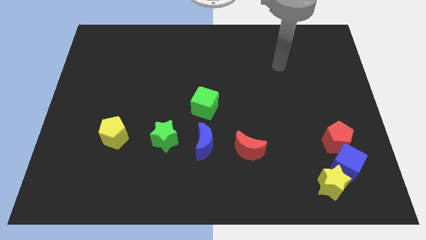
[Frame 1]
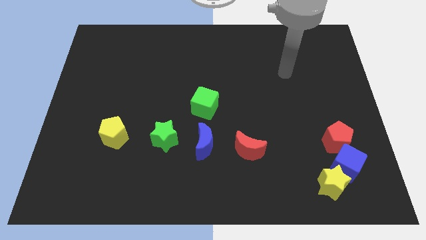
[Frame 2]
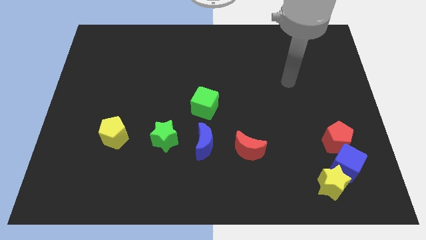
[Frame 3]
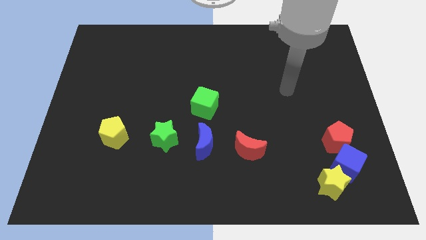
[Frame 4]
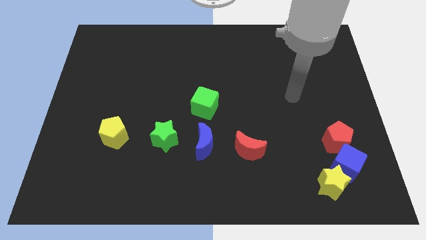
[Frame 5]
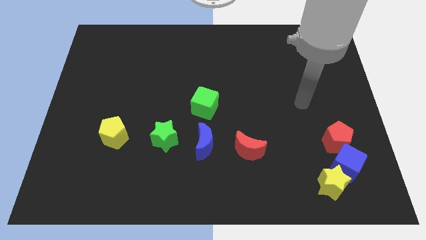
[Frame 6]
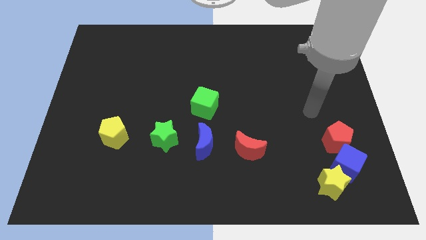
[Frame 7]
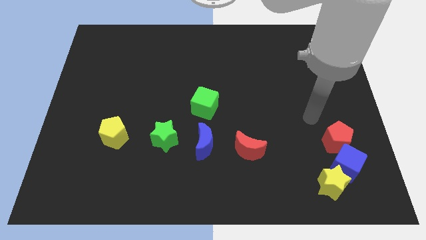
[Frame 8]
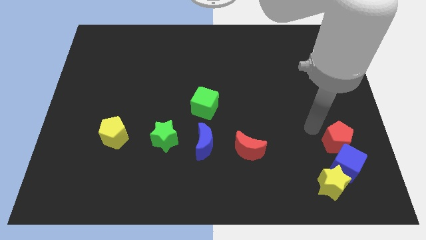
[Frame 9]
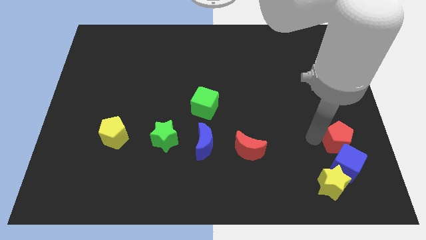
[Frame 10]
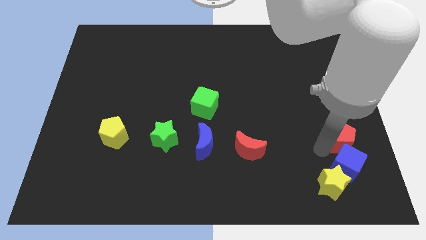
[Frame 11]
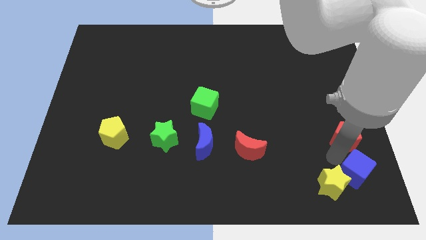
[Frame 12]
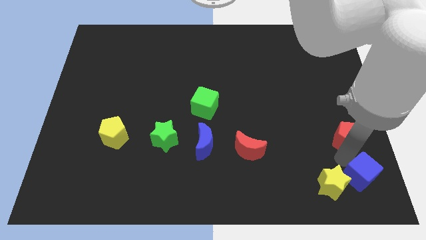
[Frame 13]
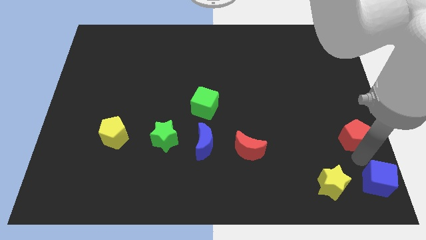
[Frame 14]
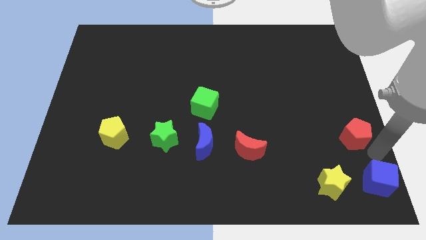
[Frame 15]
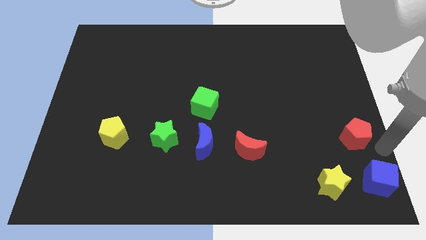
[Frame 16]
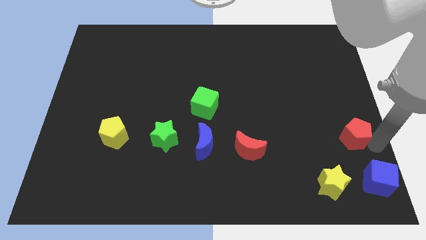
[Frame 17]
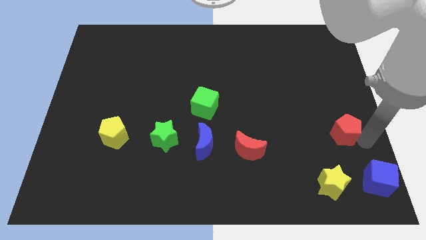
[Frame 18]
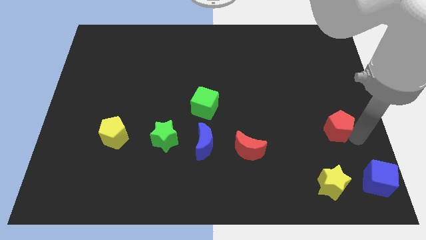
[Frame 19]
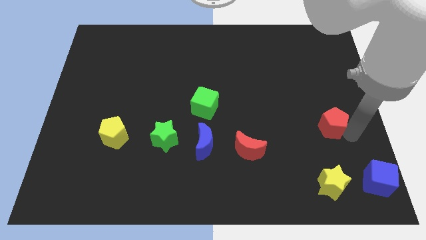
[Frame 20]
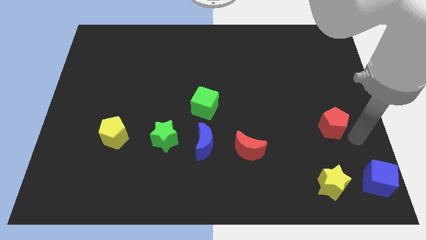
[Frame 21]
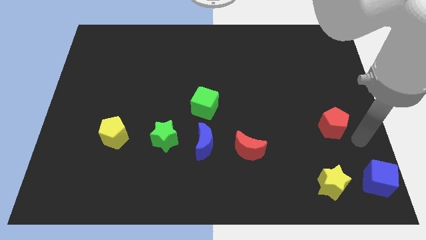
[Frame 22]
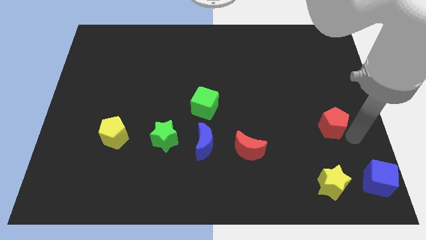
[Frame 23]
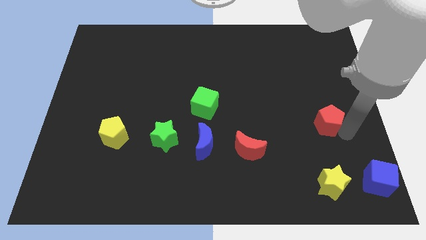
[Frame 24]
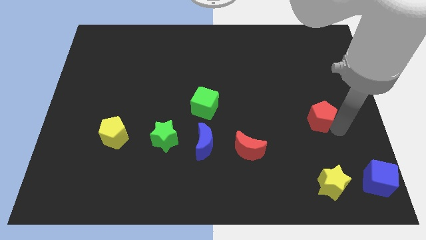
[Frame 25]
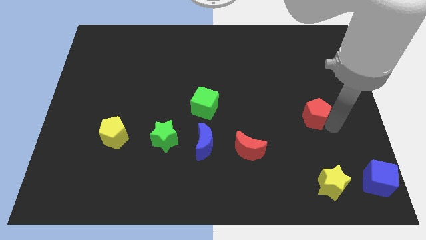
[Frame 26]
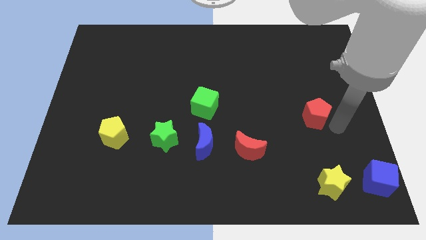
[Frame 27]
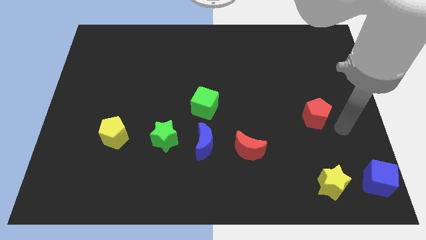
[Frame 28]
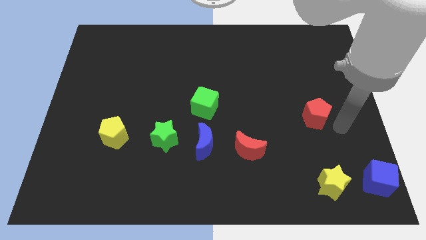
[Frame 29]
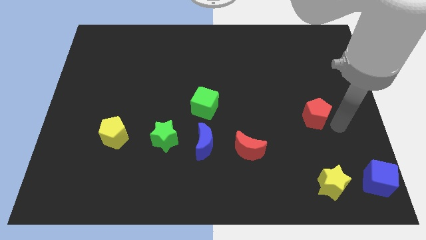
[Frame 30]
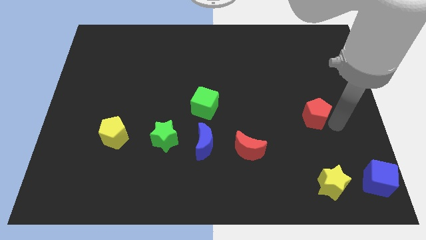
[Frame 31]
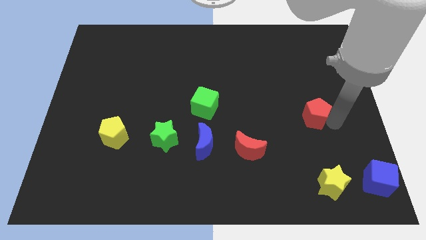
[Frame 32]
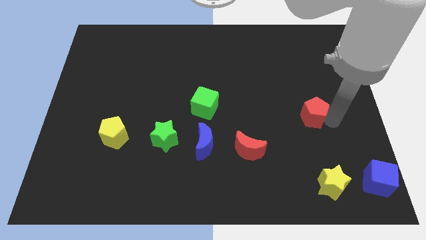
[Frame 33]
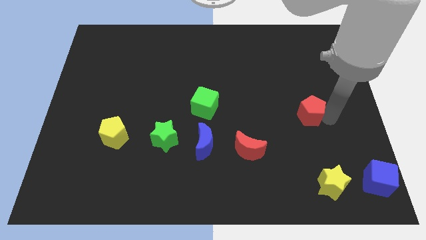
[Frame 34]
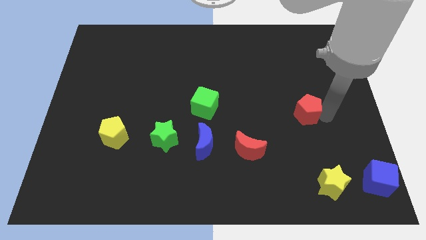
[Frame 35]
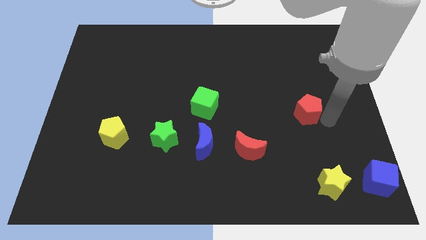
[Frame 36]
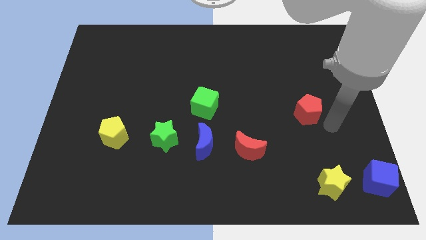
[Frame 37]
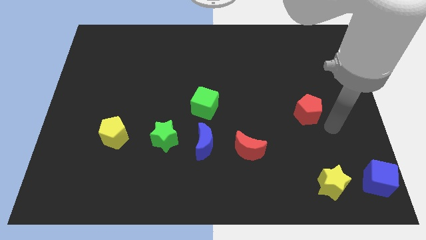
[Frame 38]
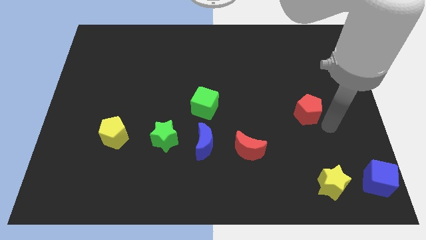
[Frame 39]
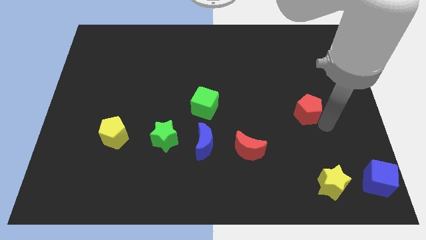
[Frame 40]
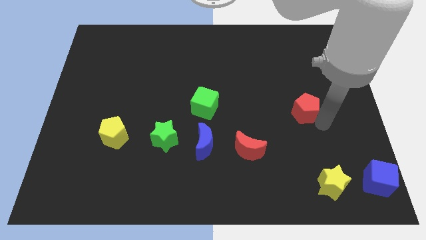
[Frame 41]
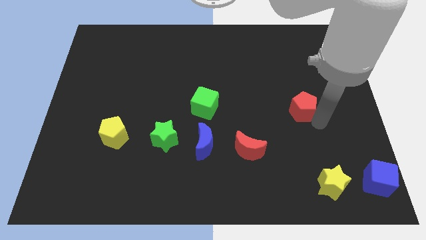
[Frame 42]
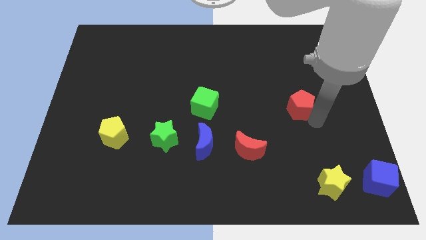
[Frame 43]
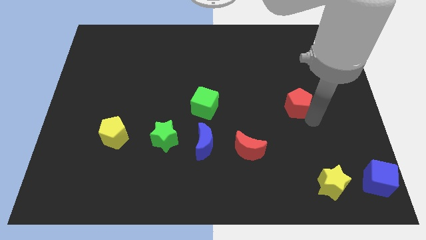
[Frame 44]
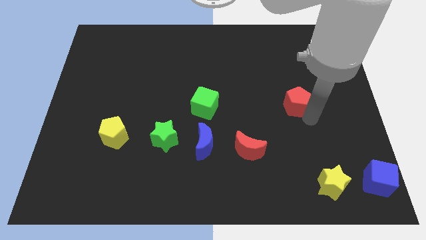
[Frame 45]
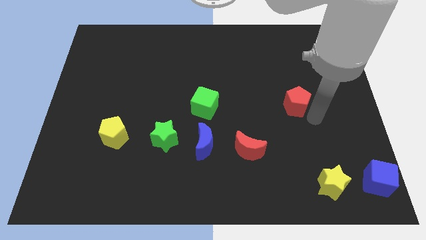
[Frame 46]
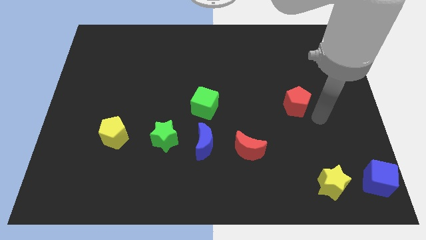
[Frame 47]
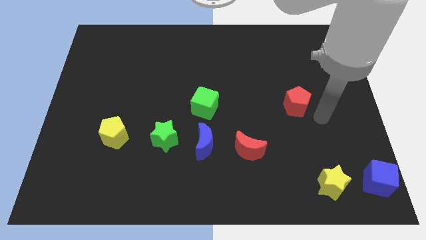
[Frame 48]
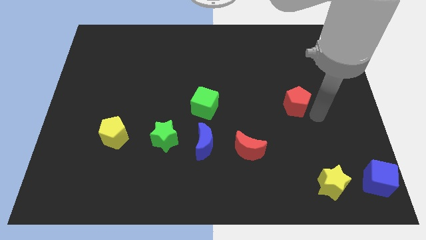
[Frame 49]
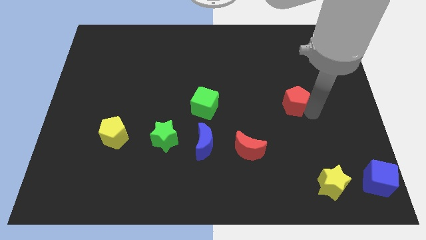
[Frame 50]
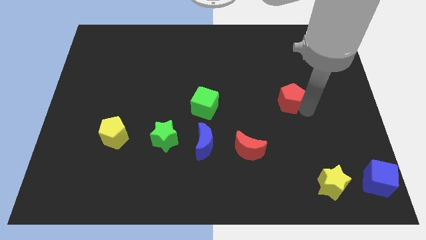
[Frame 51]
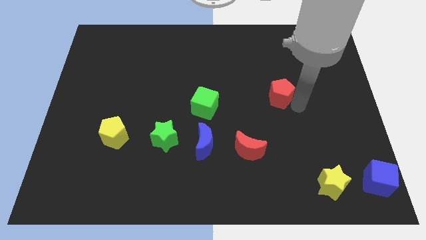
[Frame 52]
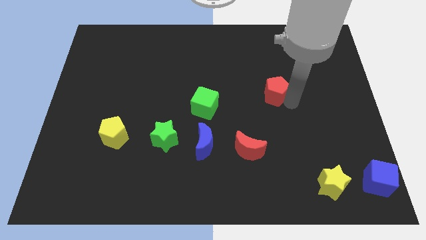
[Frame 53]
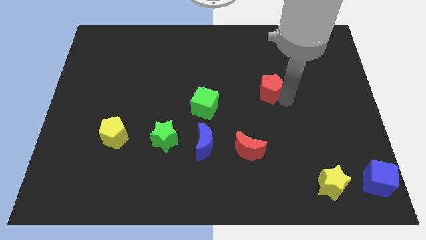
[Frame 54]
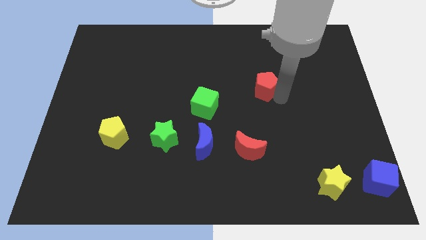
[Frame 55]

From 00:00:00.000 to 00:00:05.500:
slide the red pentagon up and to the left

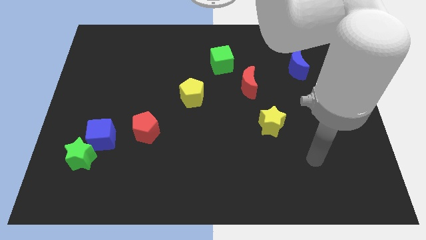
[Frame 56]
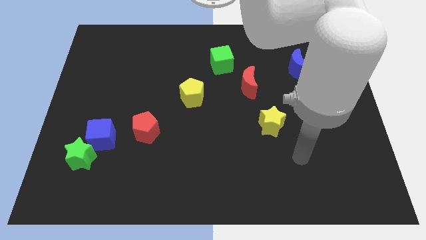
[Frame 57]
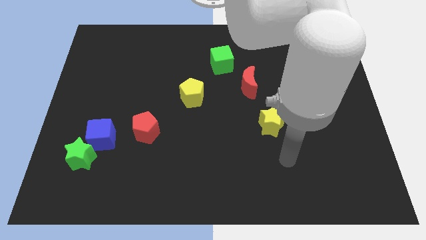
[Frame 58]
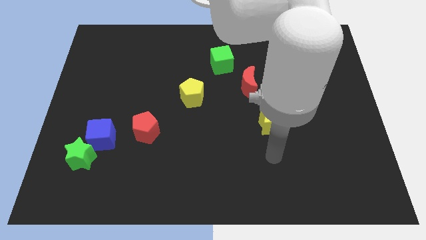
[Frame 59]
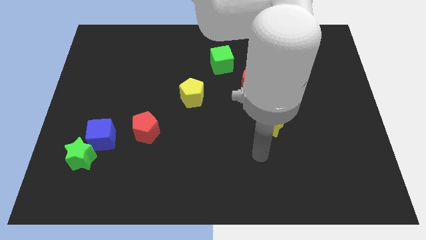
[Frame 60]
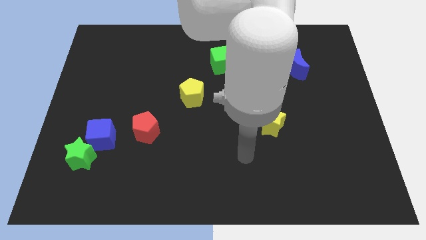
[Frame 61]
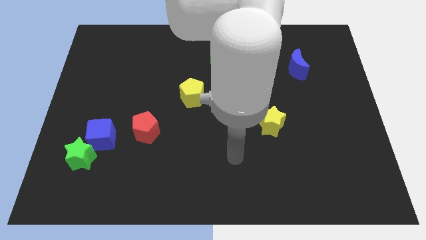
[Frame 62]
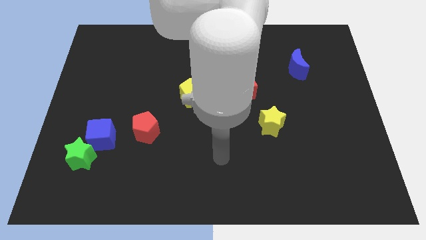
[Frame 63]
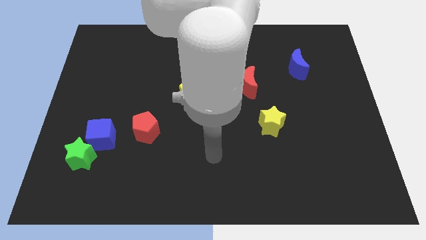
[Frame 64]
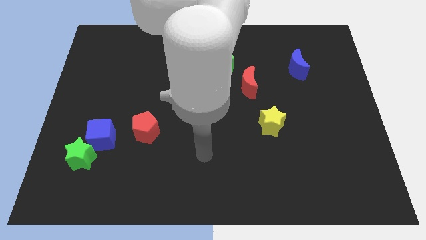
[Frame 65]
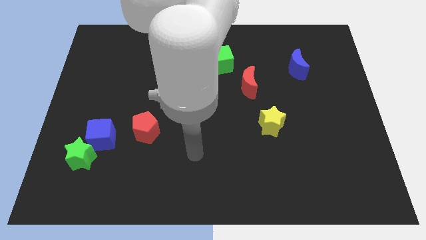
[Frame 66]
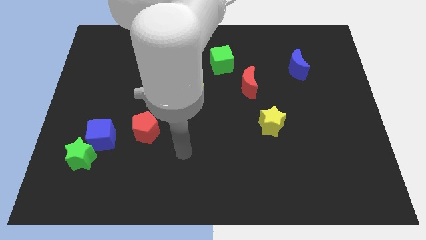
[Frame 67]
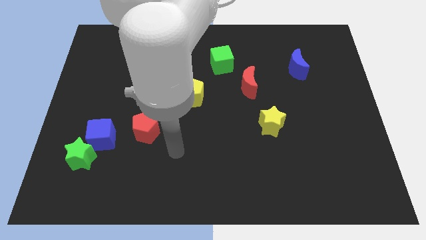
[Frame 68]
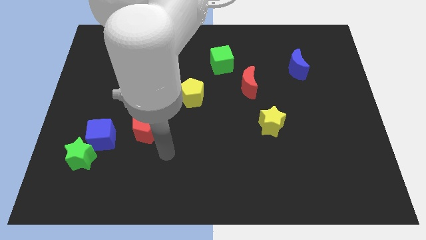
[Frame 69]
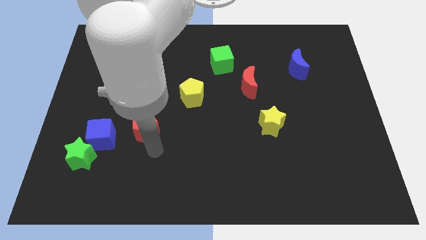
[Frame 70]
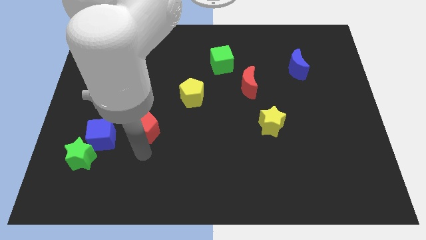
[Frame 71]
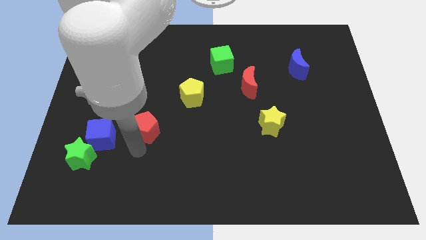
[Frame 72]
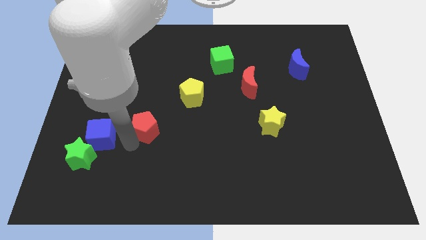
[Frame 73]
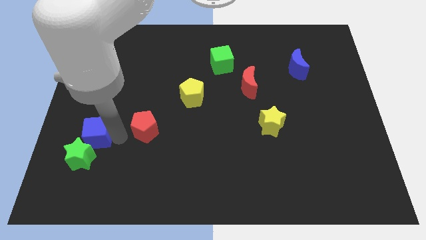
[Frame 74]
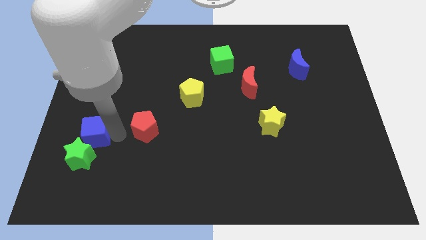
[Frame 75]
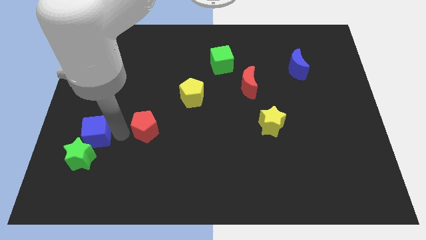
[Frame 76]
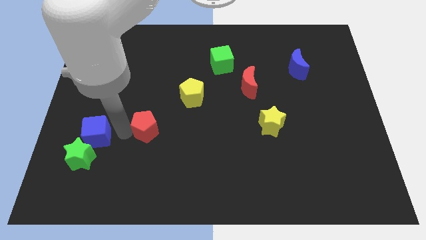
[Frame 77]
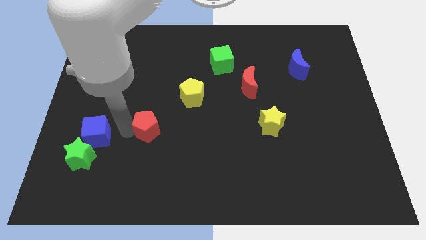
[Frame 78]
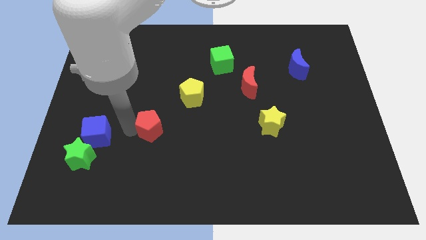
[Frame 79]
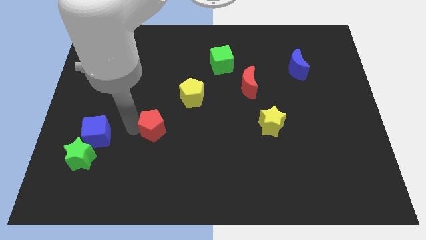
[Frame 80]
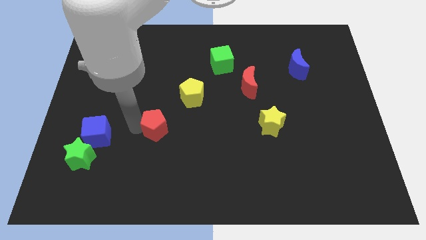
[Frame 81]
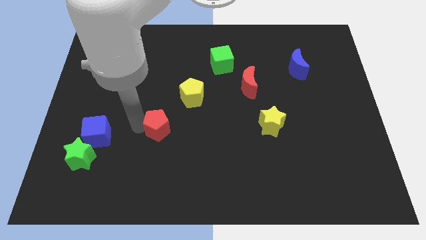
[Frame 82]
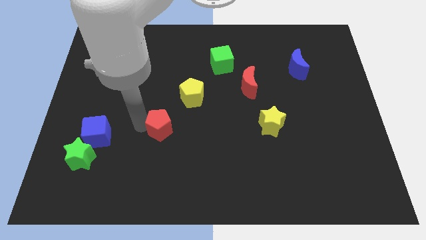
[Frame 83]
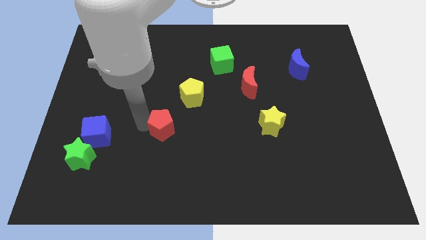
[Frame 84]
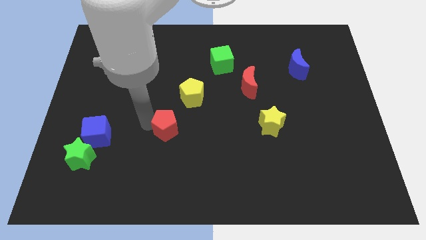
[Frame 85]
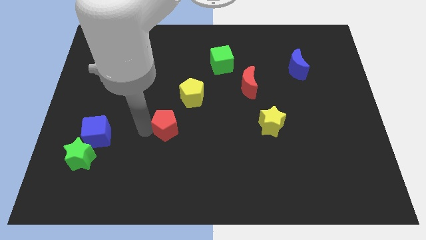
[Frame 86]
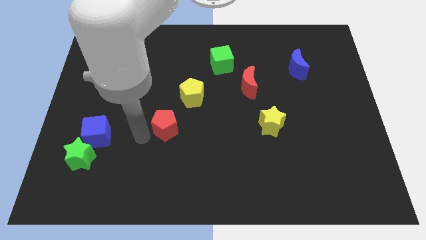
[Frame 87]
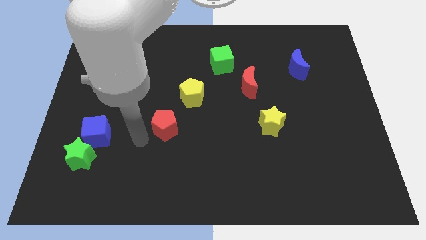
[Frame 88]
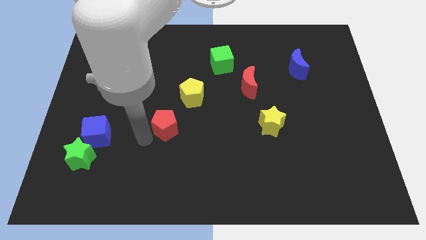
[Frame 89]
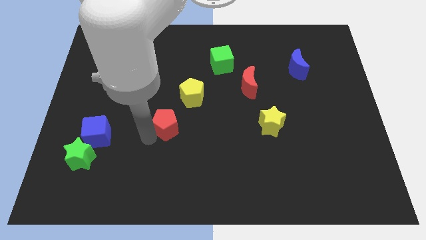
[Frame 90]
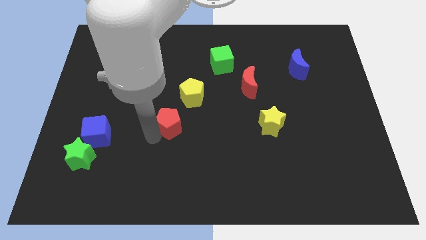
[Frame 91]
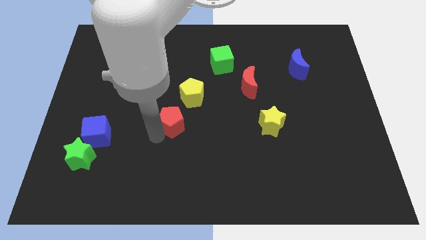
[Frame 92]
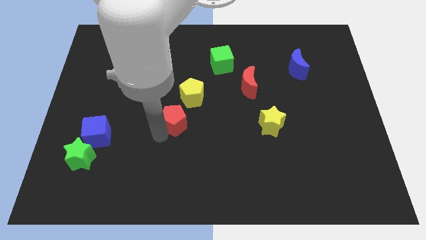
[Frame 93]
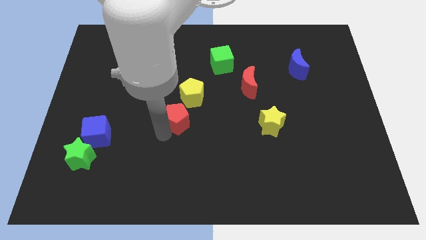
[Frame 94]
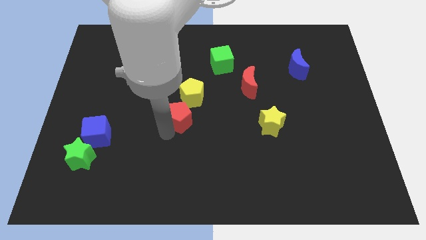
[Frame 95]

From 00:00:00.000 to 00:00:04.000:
move the red pentagon slightly diagonally upwards and to the right
